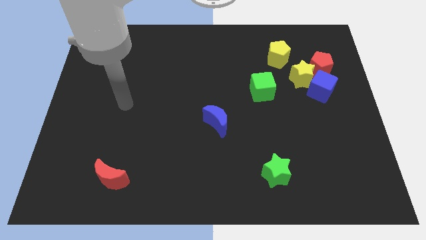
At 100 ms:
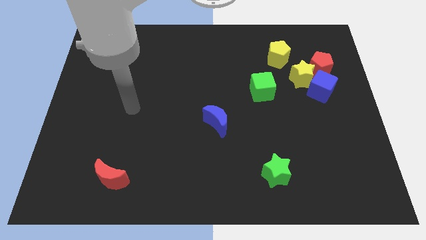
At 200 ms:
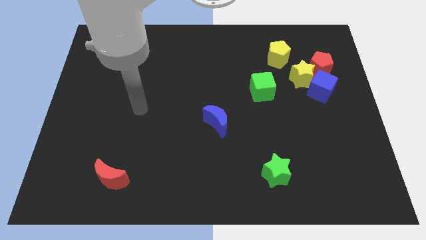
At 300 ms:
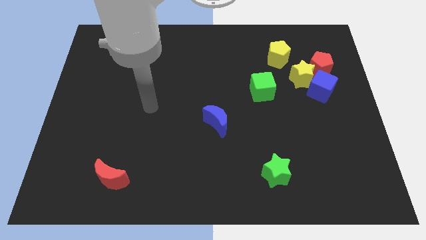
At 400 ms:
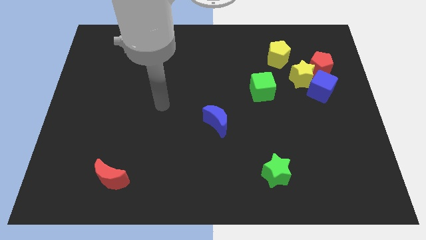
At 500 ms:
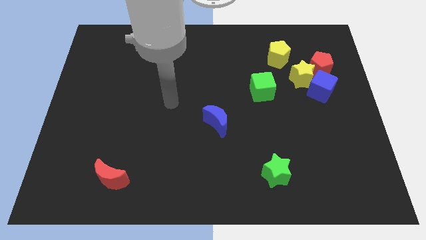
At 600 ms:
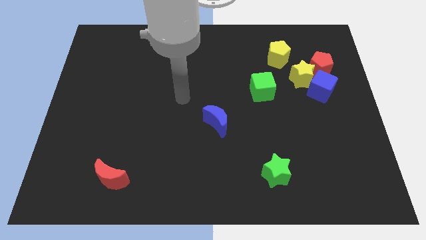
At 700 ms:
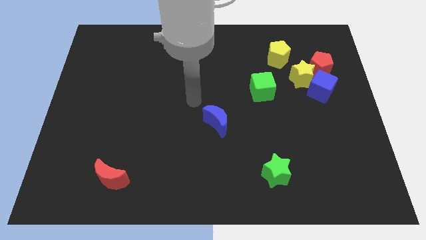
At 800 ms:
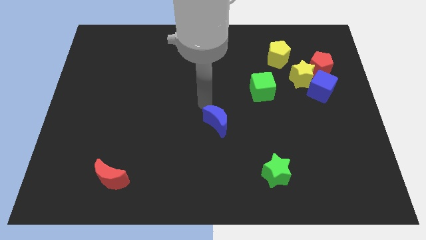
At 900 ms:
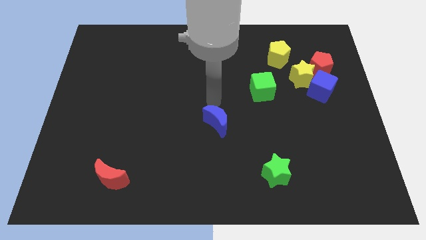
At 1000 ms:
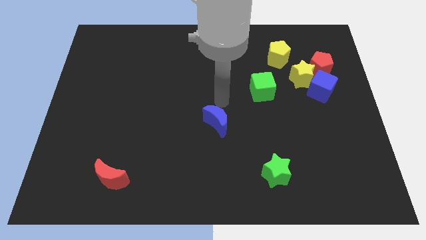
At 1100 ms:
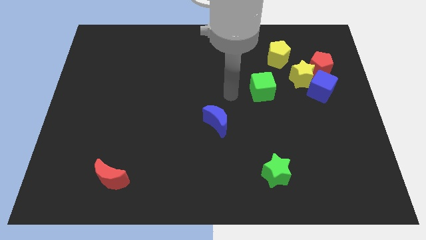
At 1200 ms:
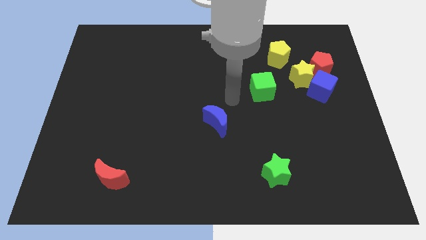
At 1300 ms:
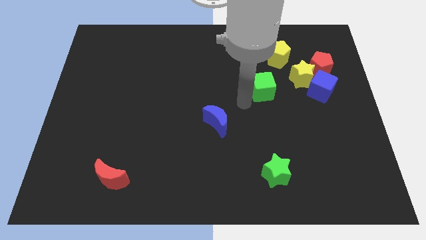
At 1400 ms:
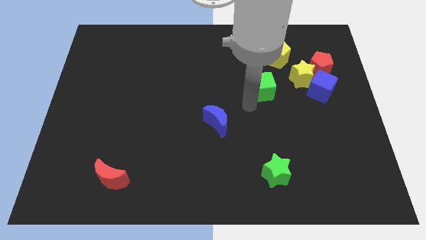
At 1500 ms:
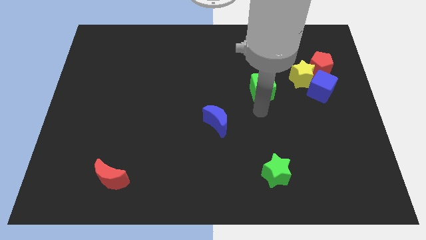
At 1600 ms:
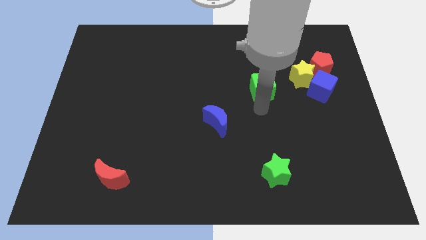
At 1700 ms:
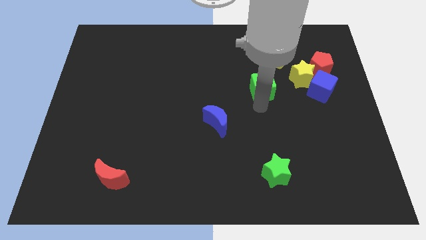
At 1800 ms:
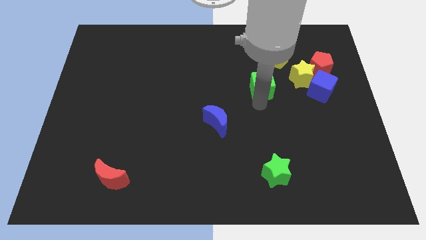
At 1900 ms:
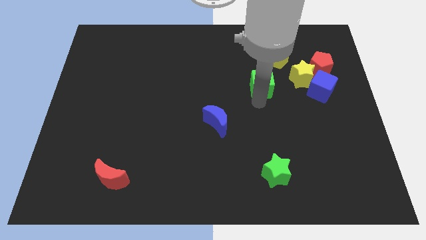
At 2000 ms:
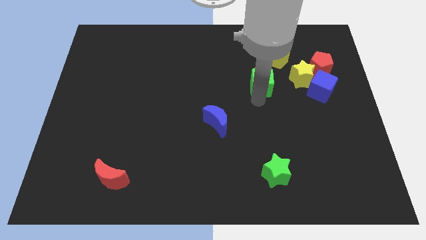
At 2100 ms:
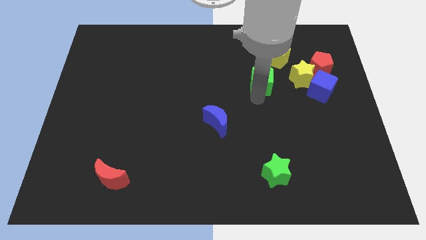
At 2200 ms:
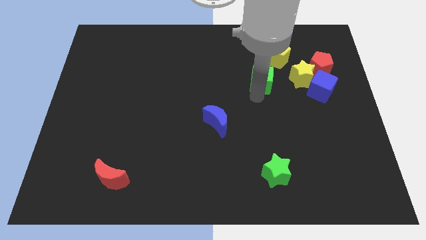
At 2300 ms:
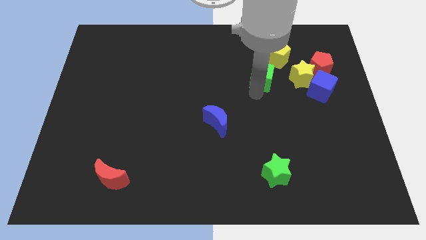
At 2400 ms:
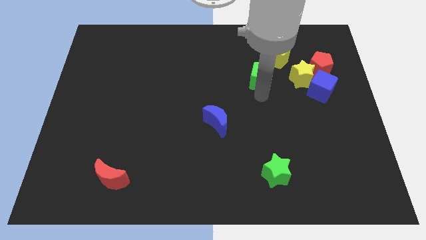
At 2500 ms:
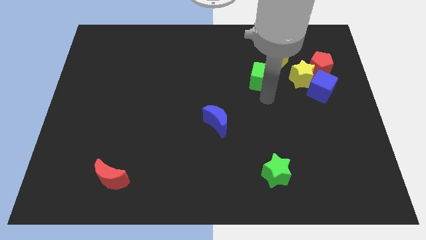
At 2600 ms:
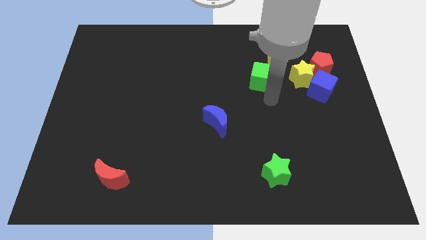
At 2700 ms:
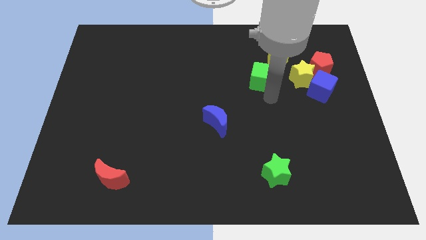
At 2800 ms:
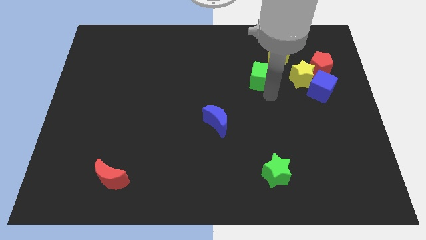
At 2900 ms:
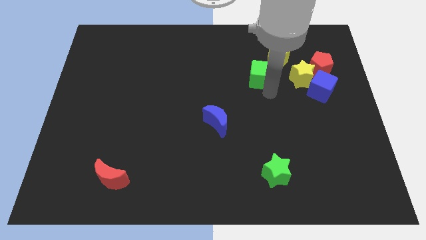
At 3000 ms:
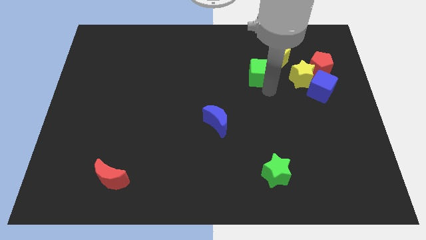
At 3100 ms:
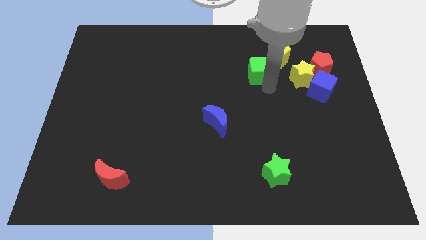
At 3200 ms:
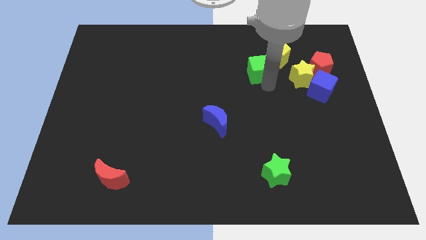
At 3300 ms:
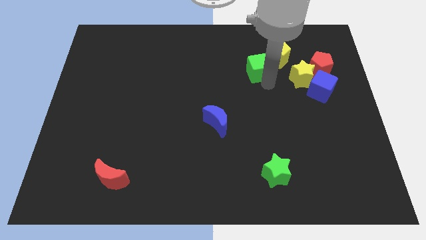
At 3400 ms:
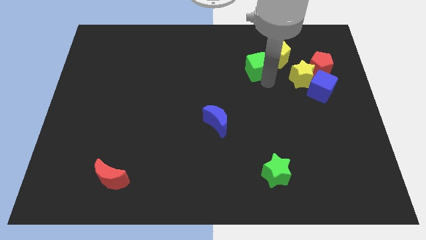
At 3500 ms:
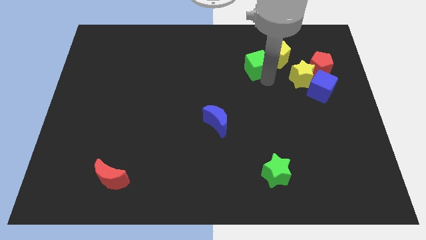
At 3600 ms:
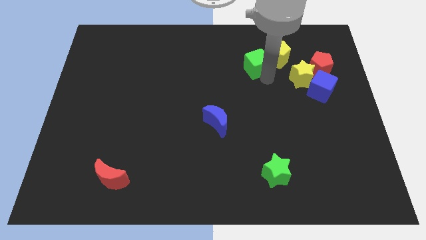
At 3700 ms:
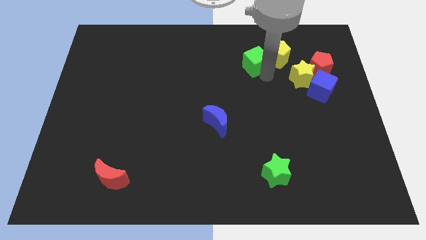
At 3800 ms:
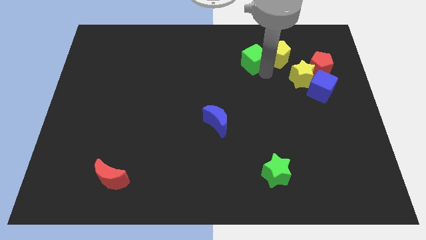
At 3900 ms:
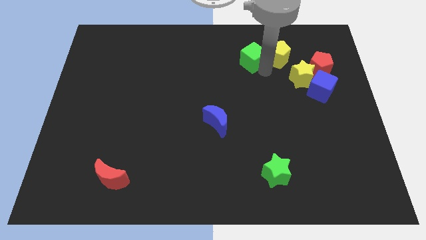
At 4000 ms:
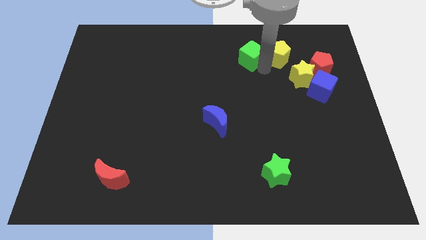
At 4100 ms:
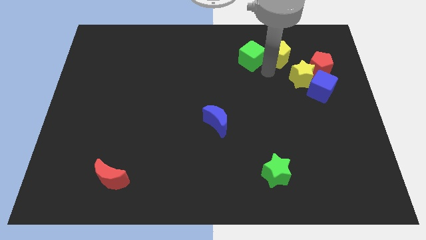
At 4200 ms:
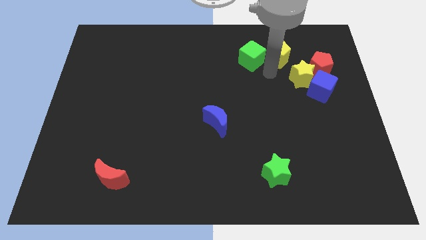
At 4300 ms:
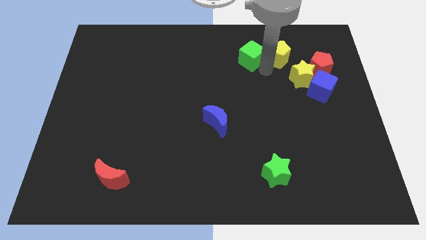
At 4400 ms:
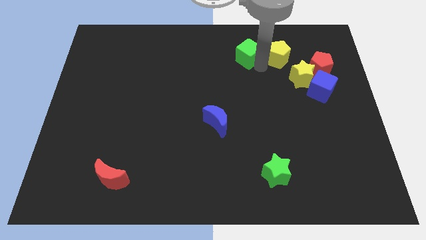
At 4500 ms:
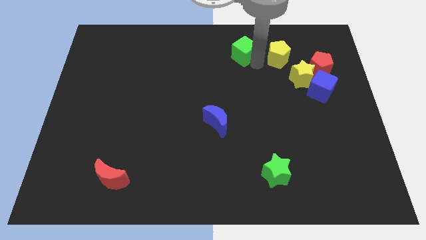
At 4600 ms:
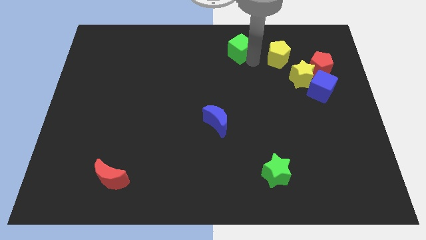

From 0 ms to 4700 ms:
slide the green cube to the towards your base

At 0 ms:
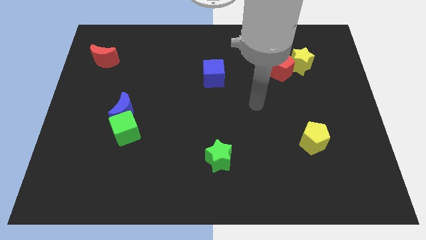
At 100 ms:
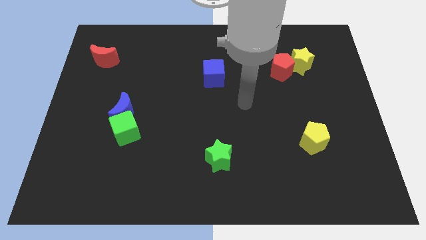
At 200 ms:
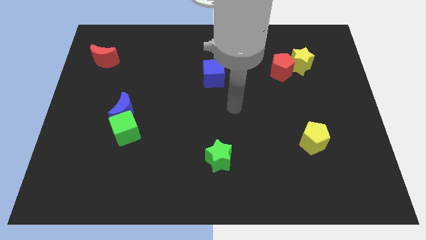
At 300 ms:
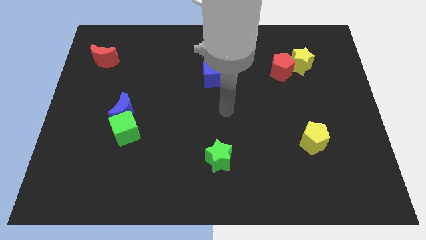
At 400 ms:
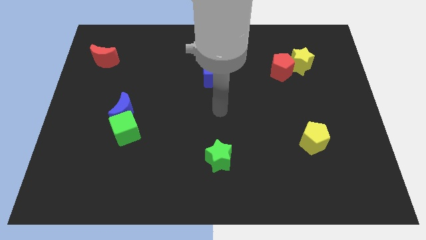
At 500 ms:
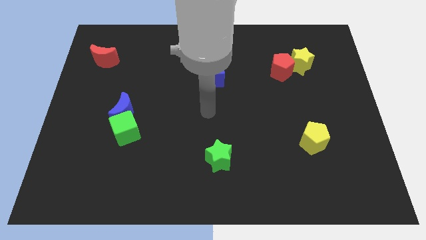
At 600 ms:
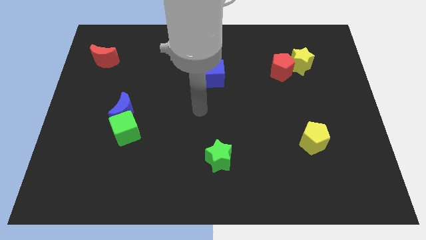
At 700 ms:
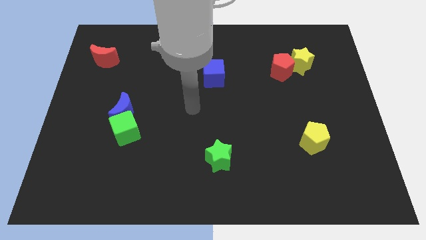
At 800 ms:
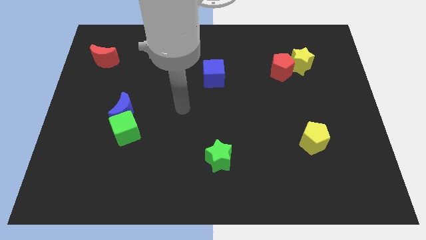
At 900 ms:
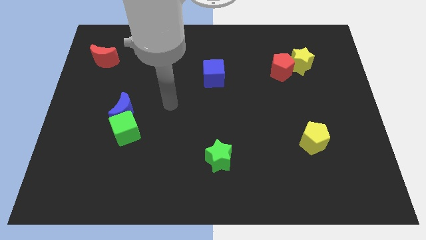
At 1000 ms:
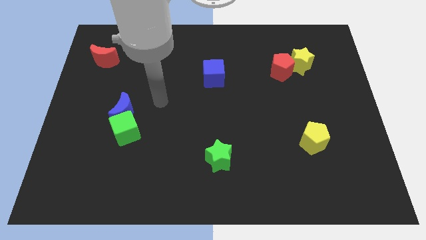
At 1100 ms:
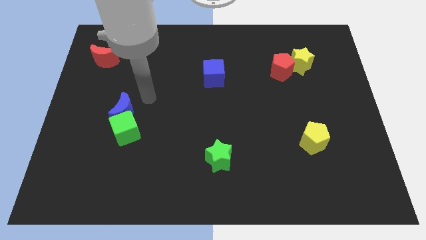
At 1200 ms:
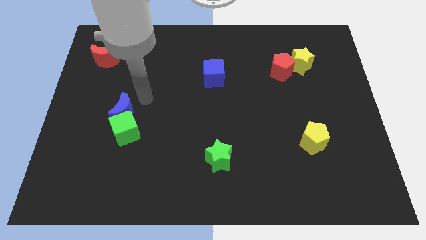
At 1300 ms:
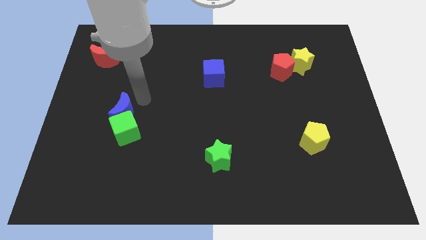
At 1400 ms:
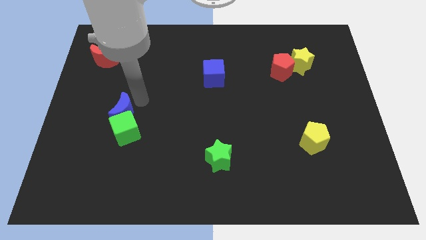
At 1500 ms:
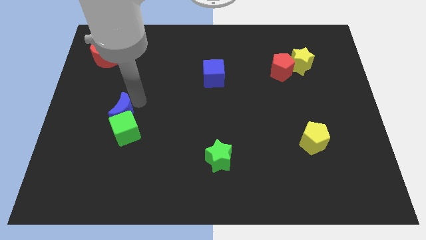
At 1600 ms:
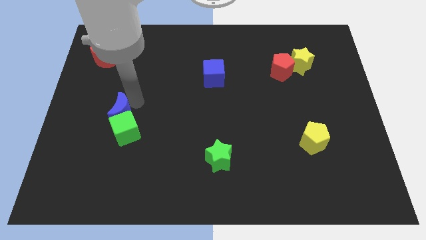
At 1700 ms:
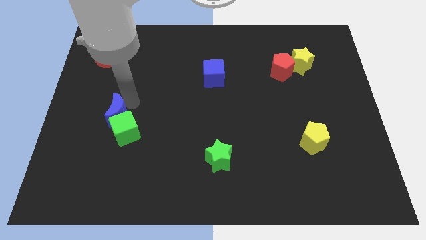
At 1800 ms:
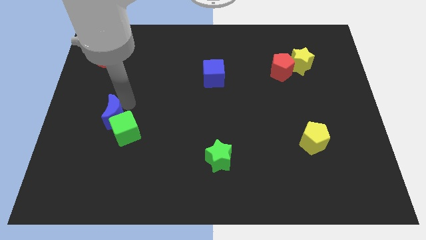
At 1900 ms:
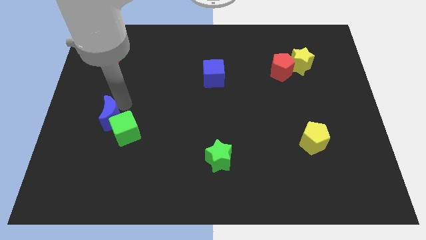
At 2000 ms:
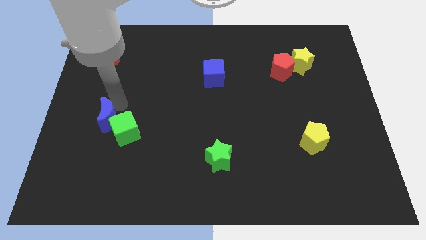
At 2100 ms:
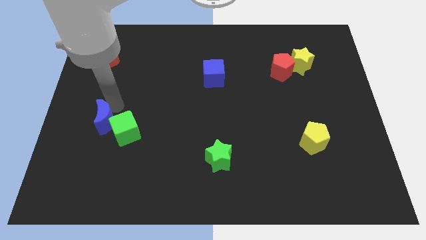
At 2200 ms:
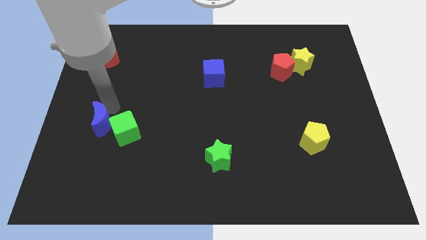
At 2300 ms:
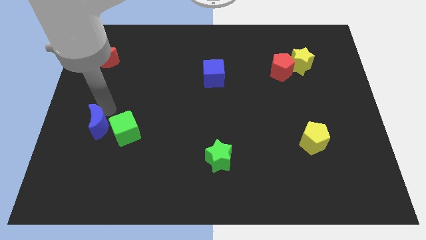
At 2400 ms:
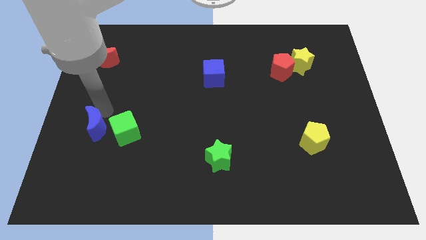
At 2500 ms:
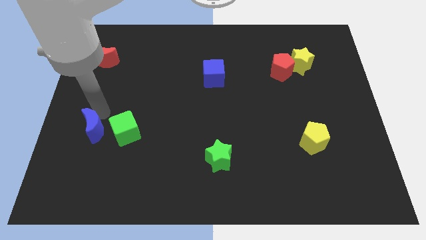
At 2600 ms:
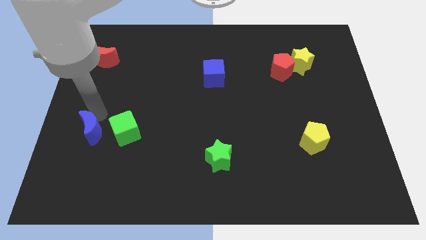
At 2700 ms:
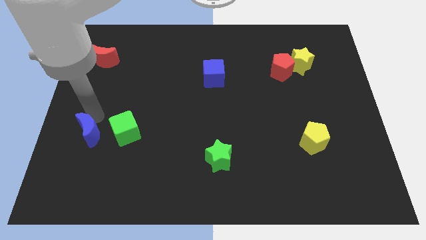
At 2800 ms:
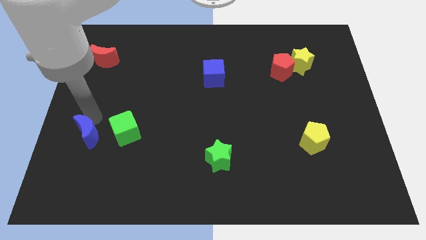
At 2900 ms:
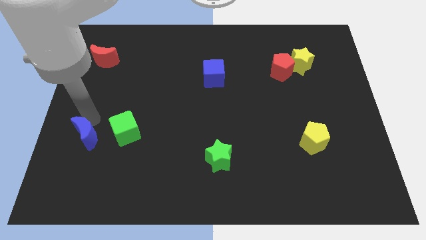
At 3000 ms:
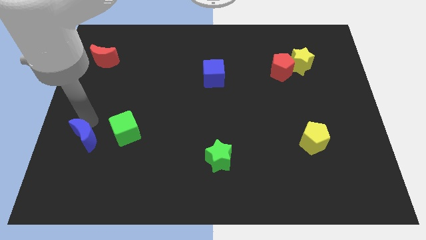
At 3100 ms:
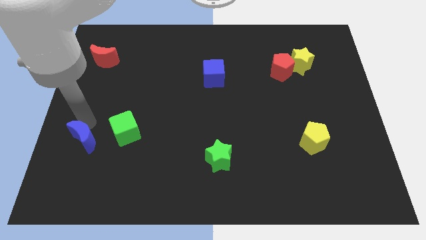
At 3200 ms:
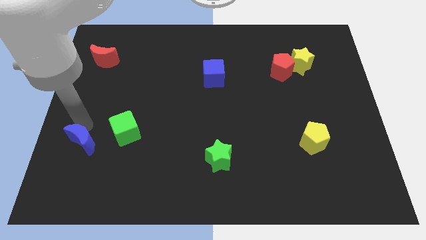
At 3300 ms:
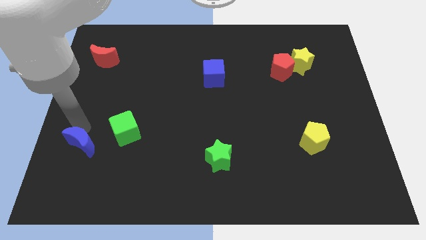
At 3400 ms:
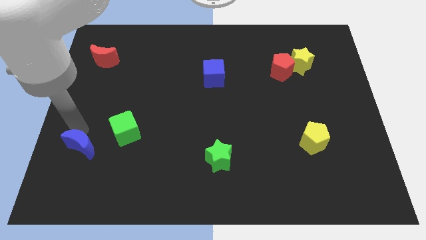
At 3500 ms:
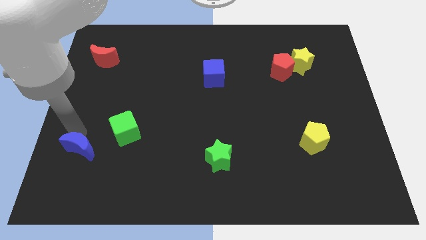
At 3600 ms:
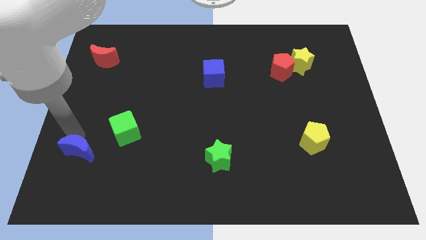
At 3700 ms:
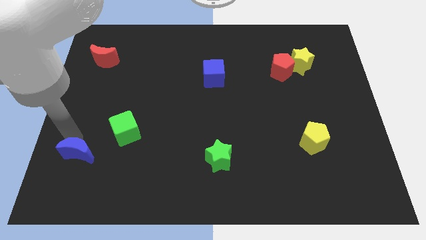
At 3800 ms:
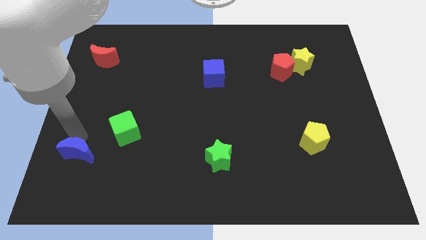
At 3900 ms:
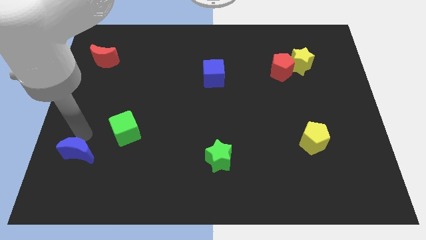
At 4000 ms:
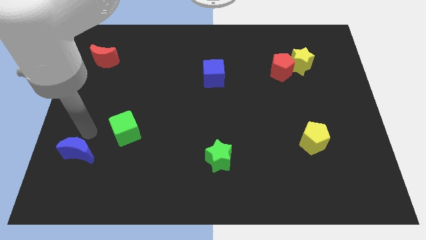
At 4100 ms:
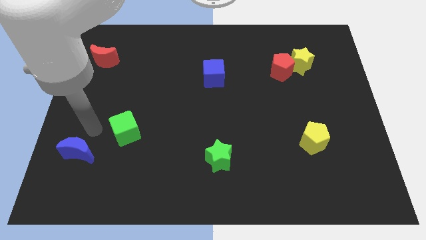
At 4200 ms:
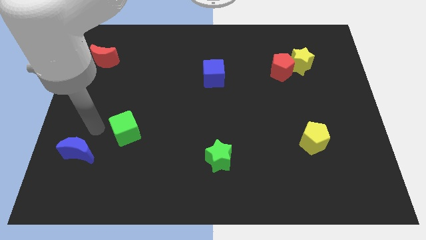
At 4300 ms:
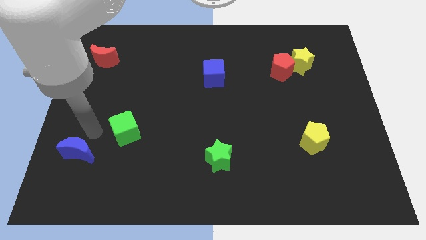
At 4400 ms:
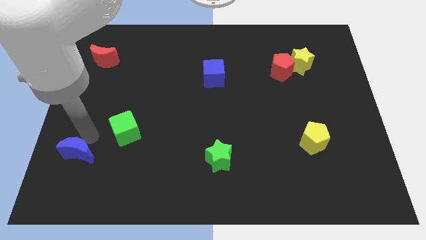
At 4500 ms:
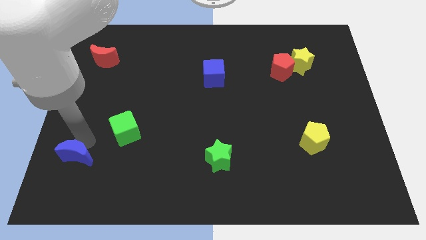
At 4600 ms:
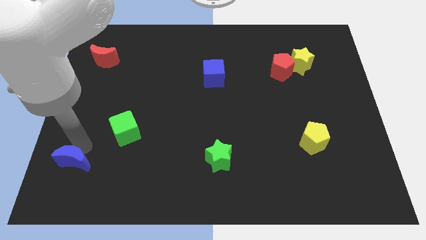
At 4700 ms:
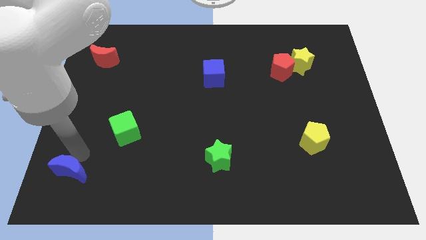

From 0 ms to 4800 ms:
slide the blue moon to the bottom left of the board
